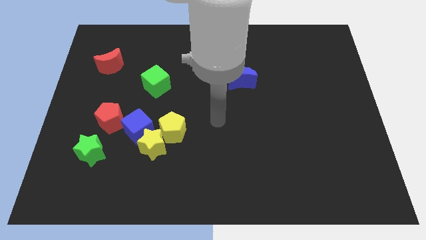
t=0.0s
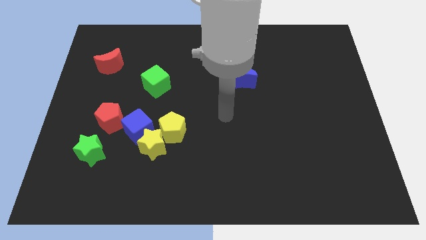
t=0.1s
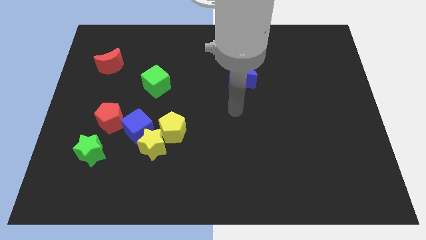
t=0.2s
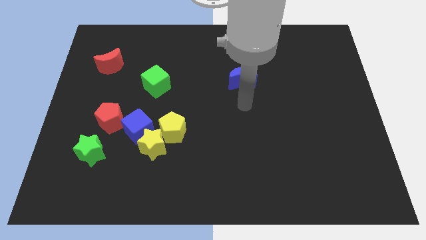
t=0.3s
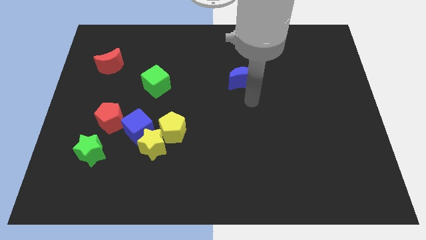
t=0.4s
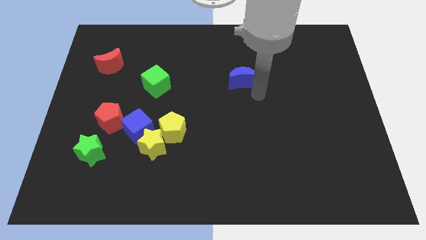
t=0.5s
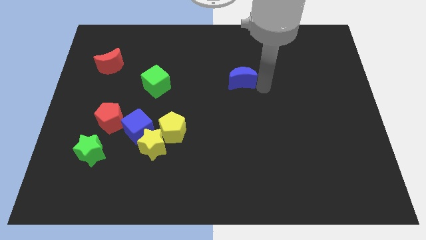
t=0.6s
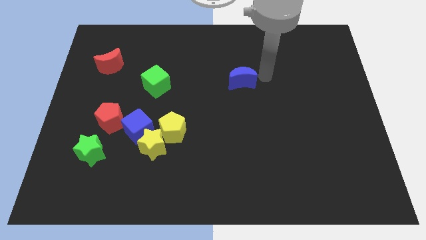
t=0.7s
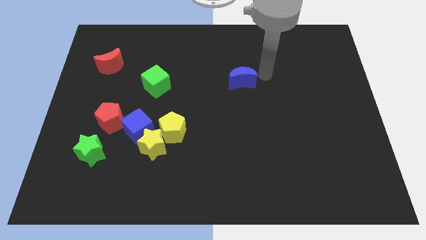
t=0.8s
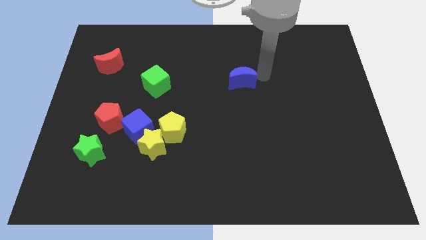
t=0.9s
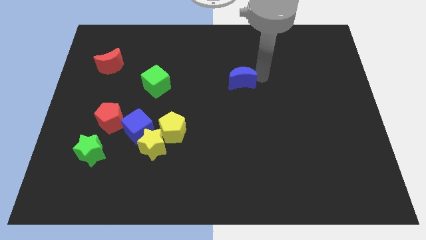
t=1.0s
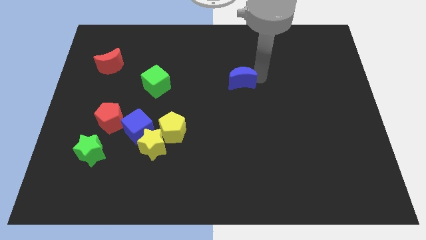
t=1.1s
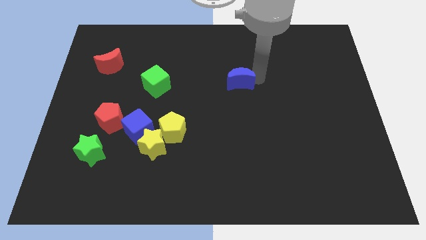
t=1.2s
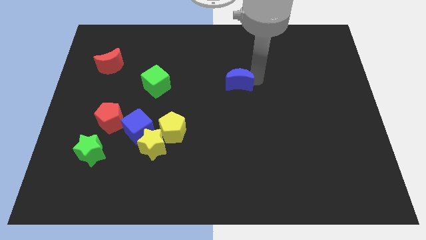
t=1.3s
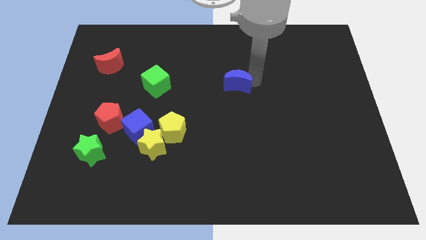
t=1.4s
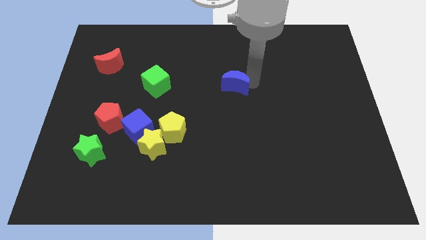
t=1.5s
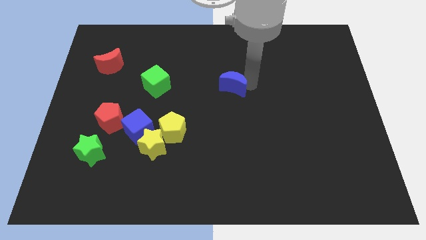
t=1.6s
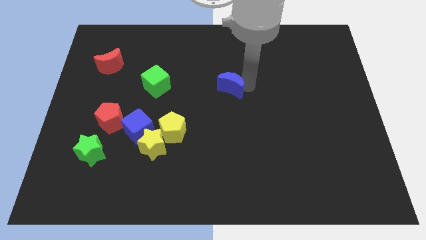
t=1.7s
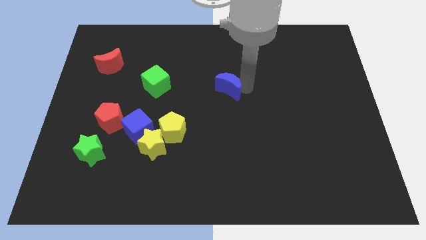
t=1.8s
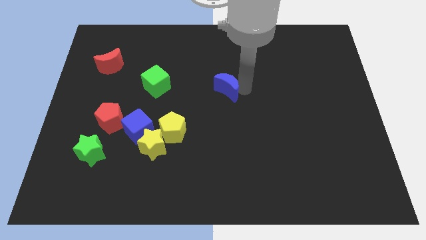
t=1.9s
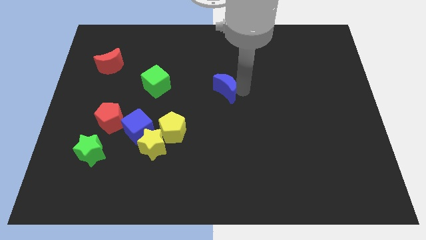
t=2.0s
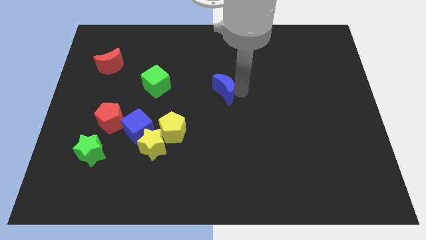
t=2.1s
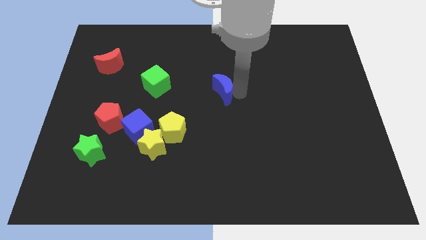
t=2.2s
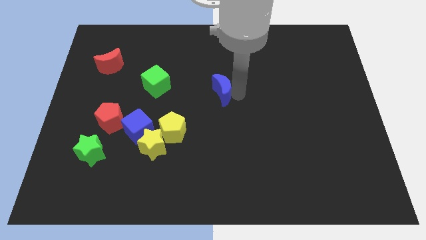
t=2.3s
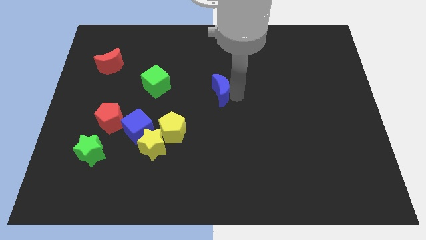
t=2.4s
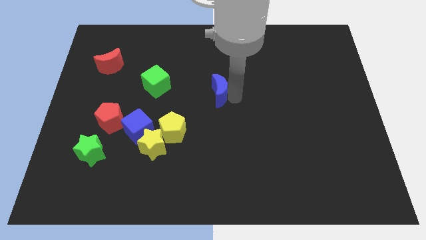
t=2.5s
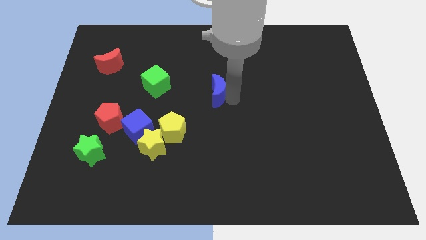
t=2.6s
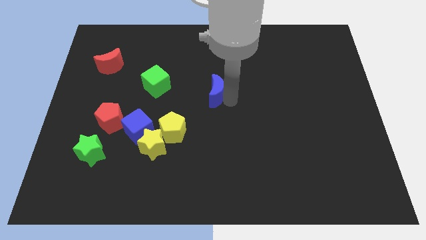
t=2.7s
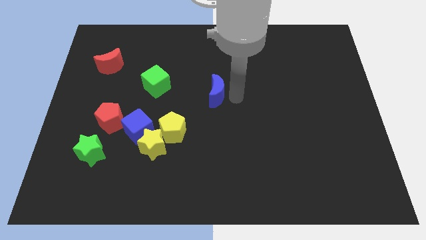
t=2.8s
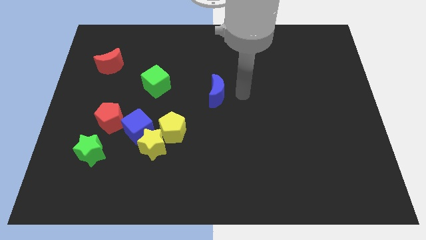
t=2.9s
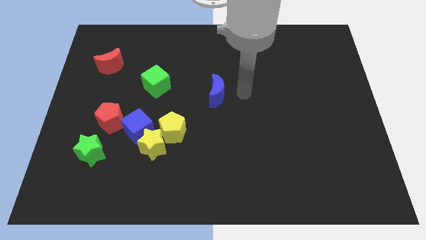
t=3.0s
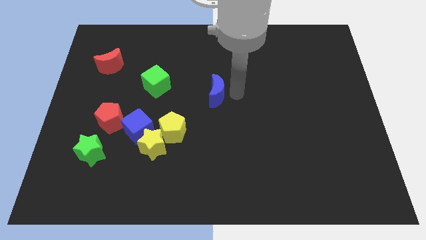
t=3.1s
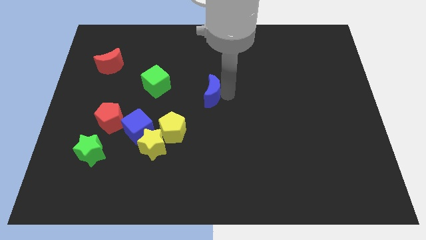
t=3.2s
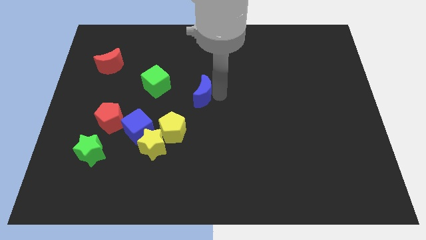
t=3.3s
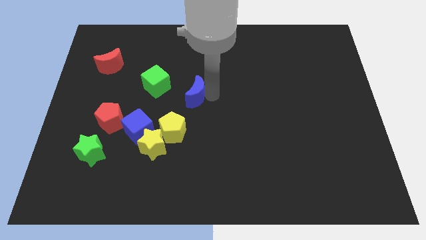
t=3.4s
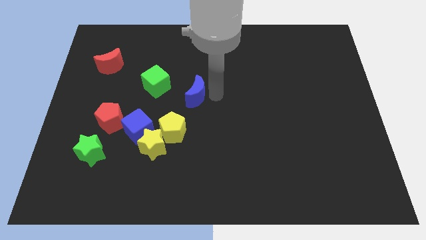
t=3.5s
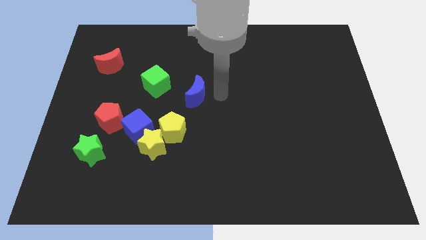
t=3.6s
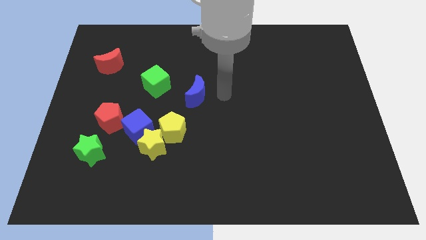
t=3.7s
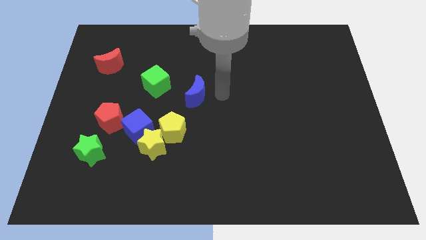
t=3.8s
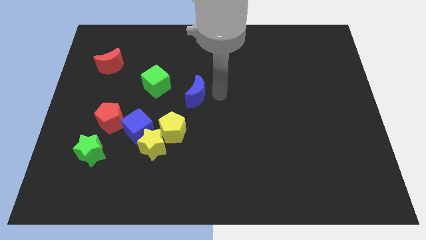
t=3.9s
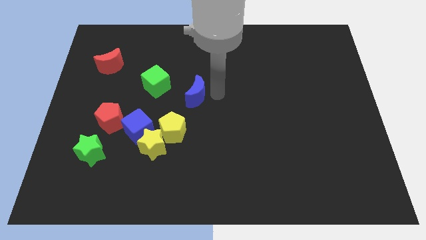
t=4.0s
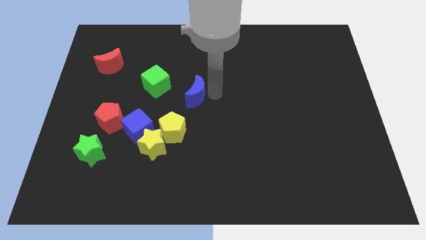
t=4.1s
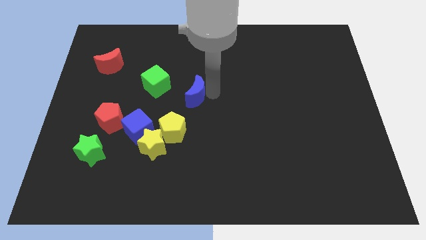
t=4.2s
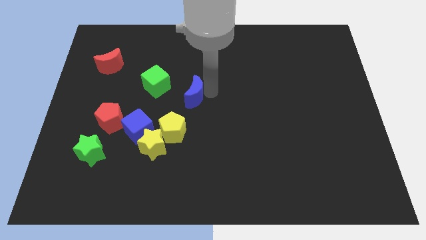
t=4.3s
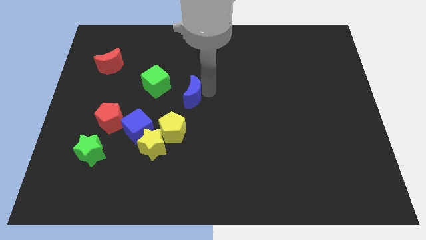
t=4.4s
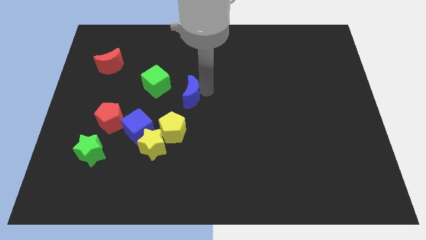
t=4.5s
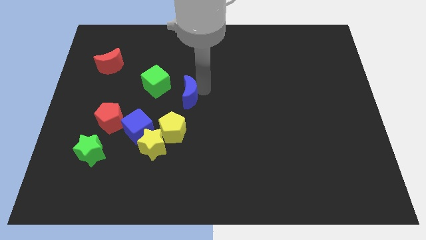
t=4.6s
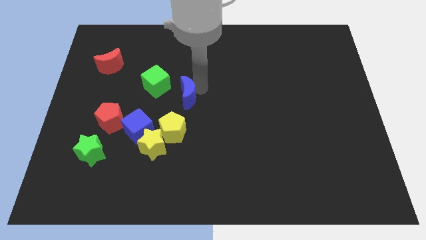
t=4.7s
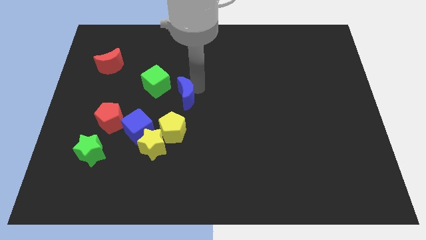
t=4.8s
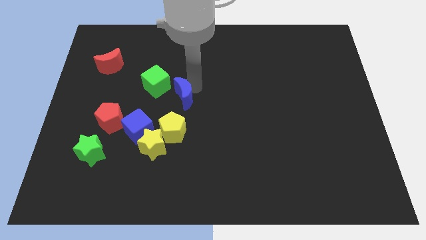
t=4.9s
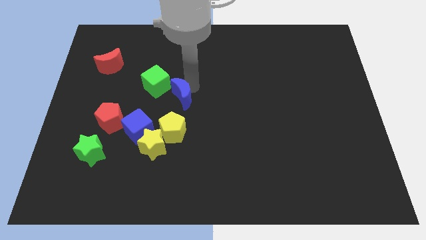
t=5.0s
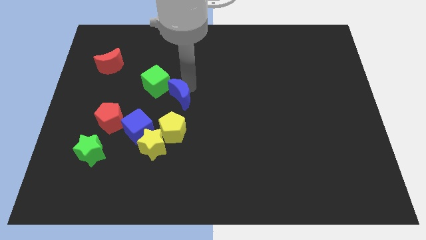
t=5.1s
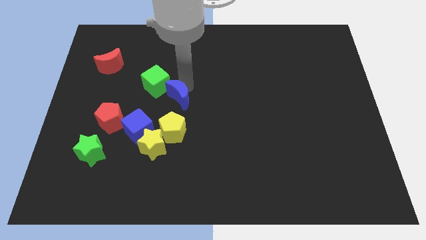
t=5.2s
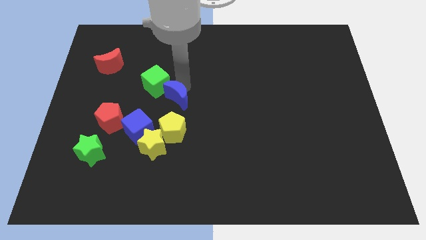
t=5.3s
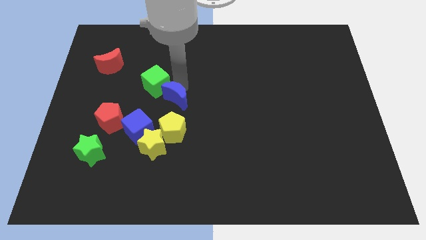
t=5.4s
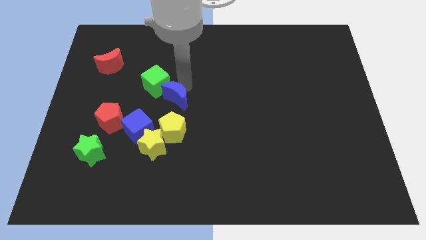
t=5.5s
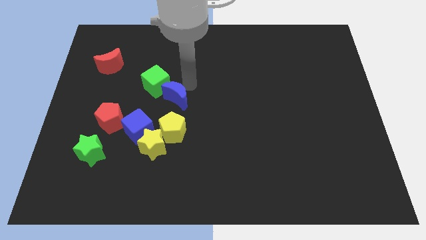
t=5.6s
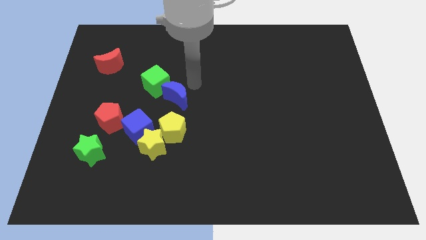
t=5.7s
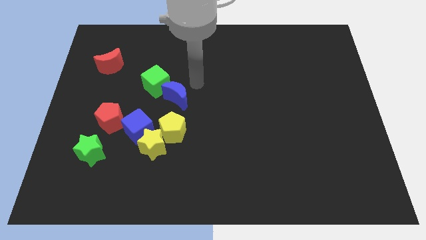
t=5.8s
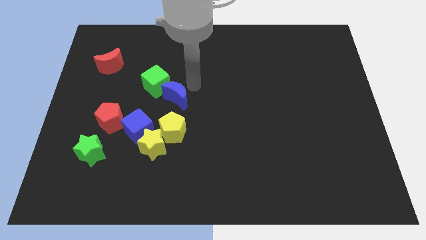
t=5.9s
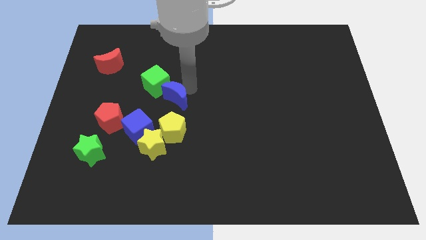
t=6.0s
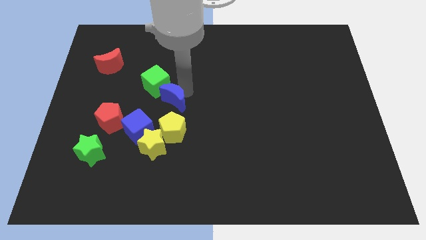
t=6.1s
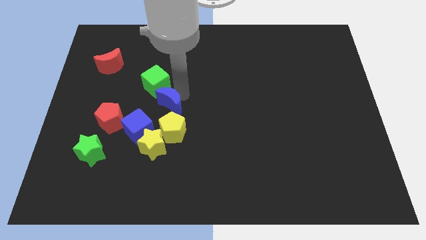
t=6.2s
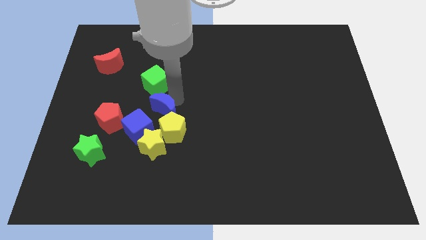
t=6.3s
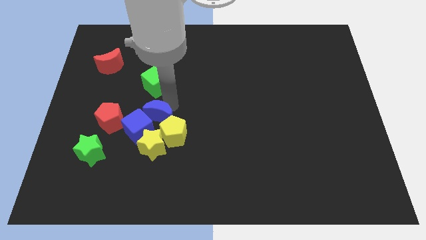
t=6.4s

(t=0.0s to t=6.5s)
push the blue moon close to the blue cube

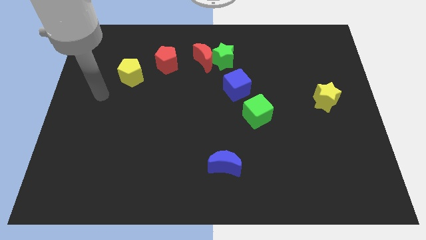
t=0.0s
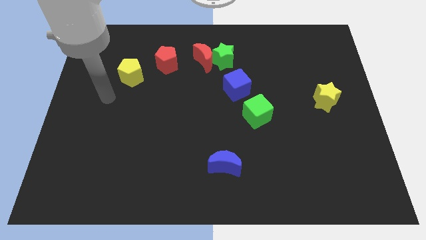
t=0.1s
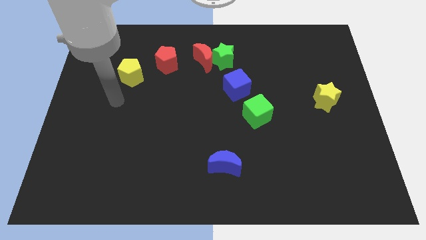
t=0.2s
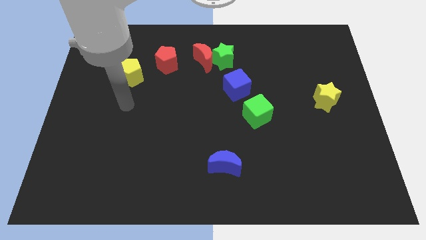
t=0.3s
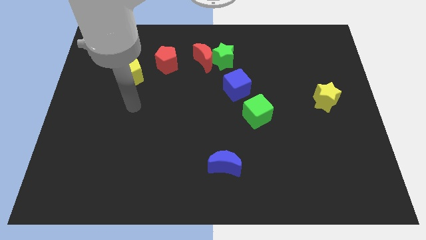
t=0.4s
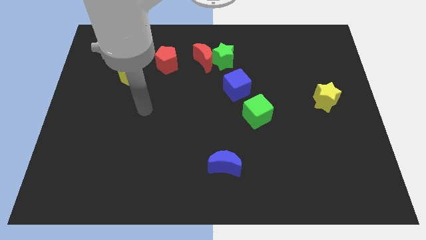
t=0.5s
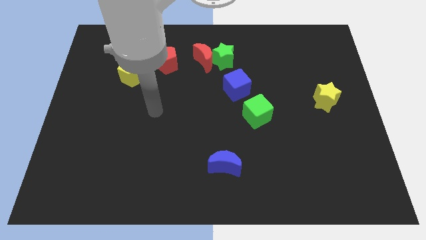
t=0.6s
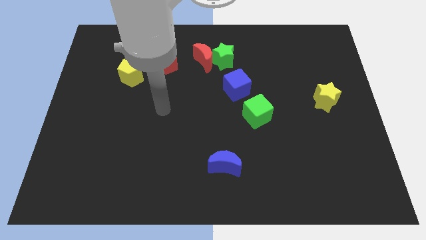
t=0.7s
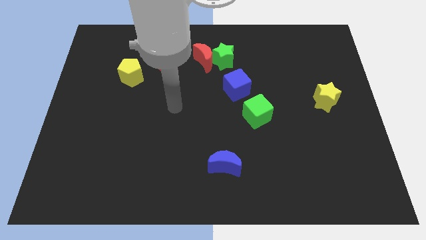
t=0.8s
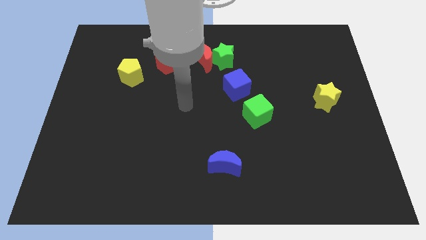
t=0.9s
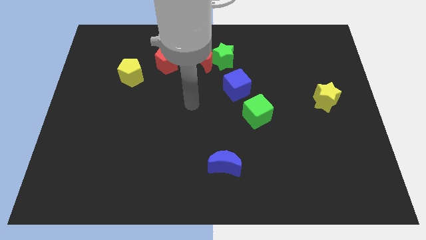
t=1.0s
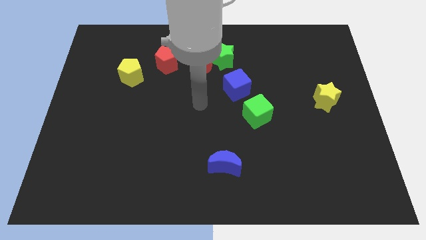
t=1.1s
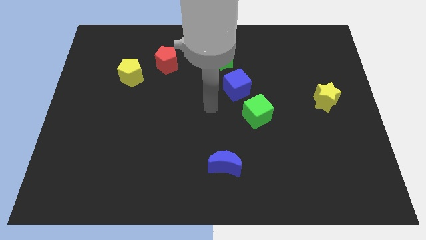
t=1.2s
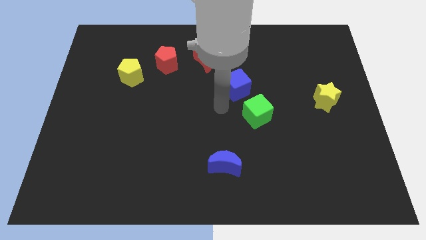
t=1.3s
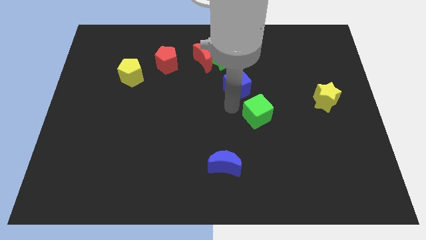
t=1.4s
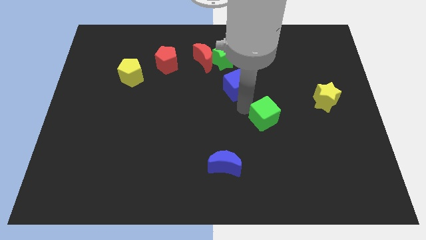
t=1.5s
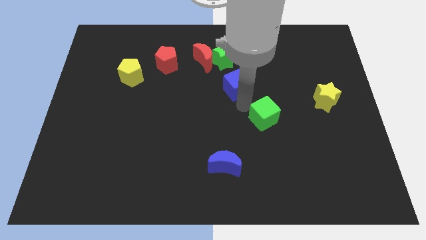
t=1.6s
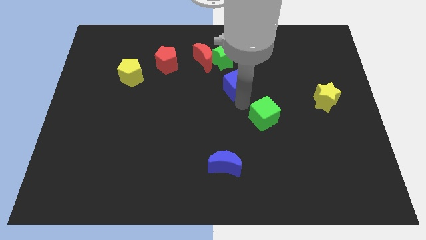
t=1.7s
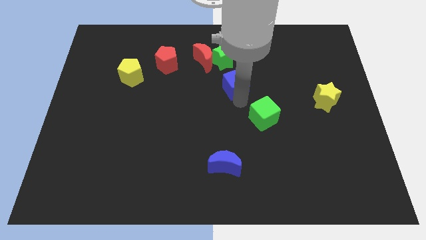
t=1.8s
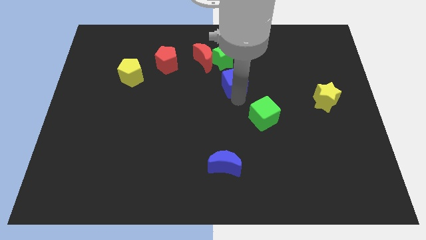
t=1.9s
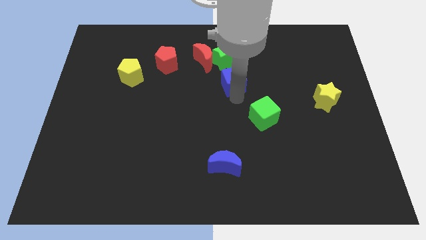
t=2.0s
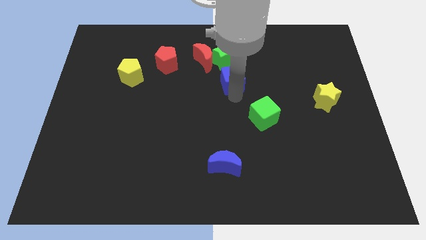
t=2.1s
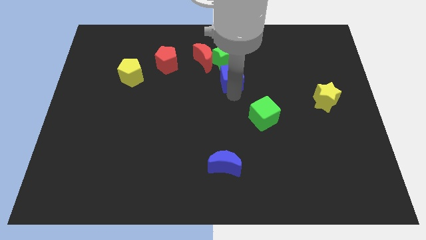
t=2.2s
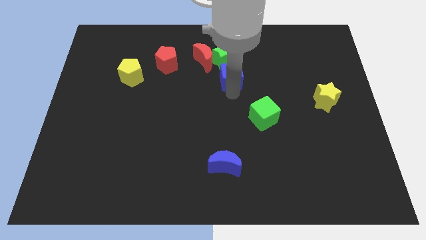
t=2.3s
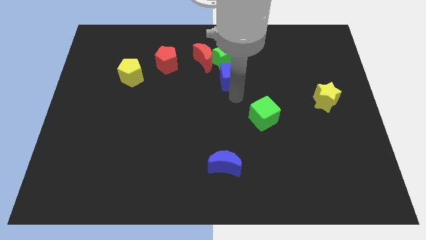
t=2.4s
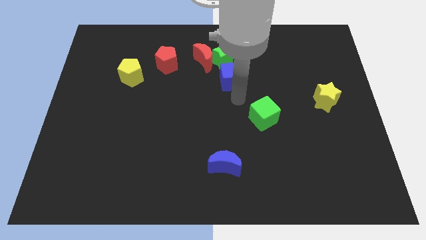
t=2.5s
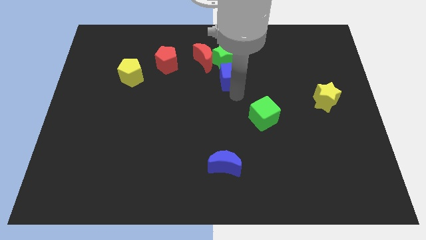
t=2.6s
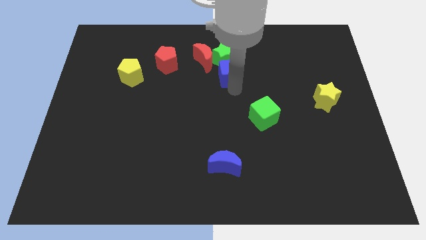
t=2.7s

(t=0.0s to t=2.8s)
slide the blue cube next to the green star
